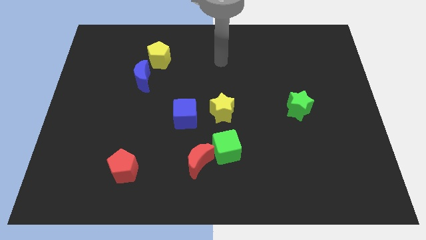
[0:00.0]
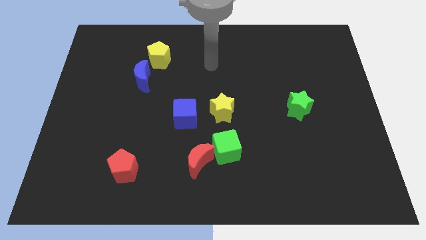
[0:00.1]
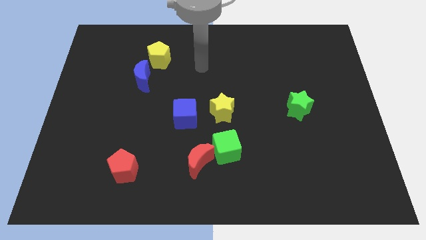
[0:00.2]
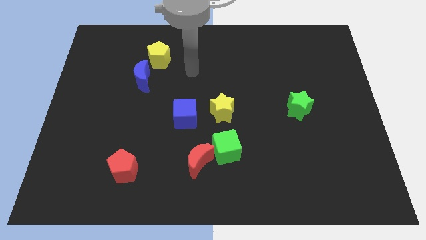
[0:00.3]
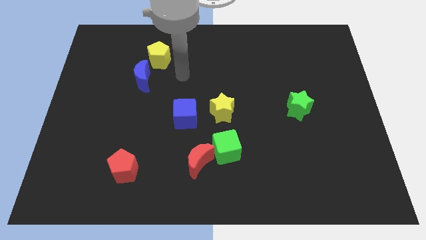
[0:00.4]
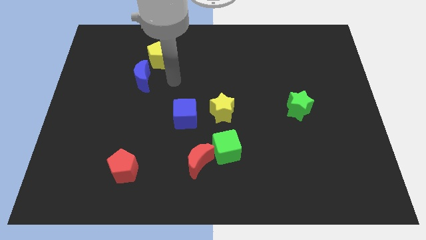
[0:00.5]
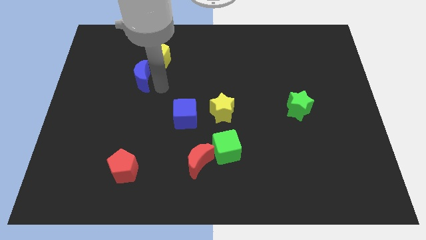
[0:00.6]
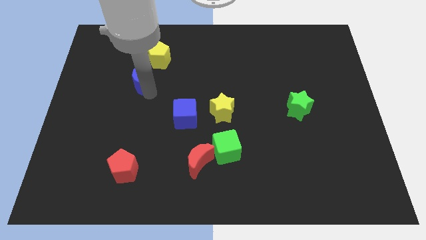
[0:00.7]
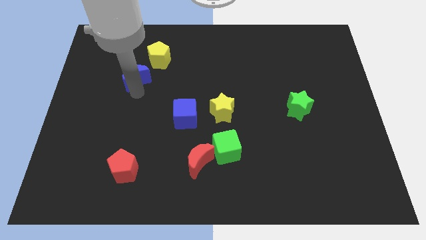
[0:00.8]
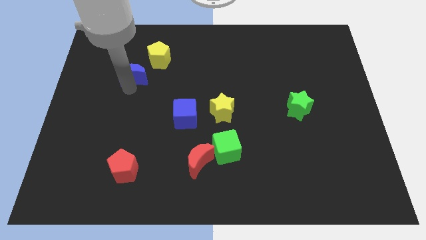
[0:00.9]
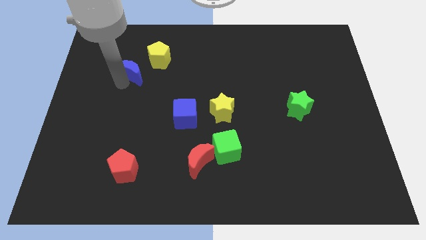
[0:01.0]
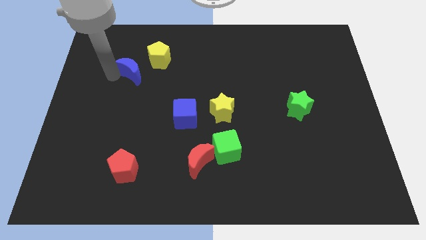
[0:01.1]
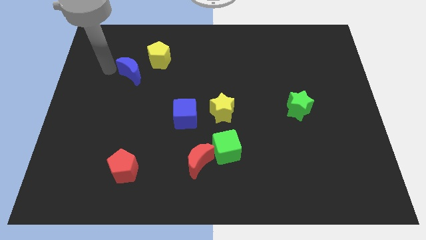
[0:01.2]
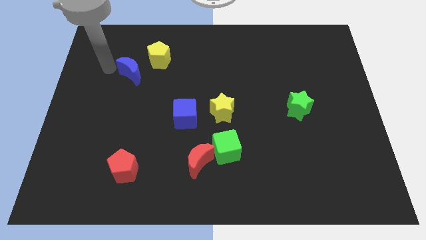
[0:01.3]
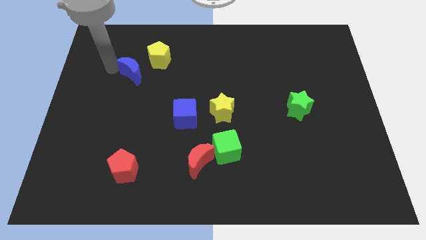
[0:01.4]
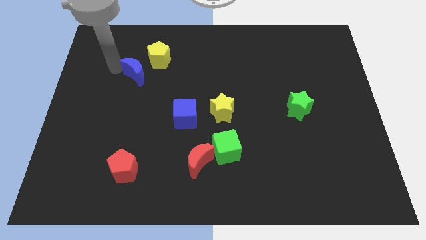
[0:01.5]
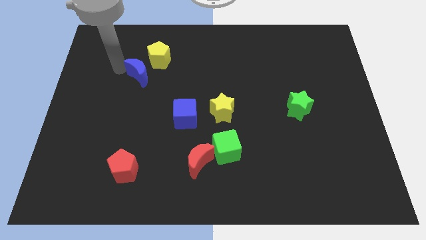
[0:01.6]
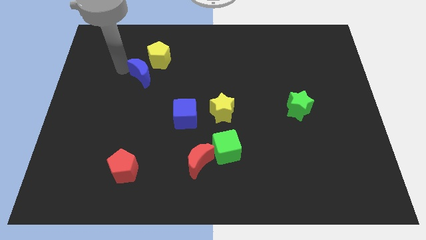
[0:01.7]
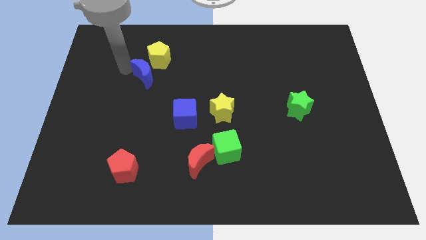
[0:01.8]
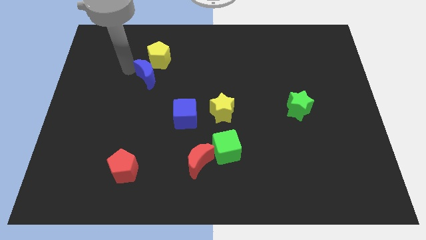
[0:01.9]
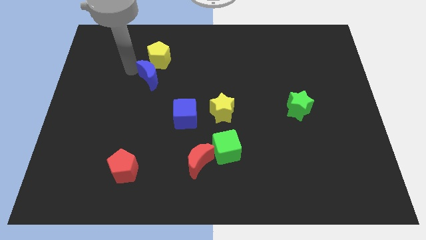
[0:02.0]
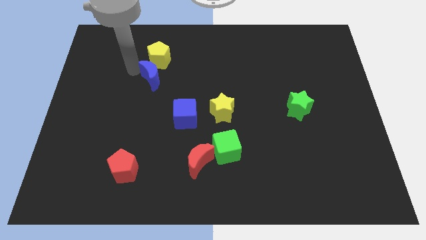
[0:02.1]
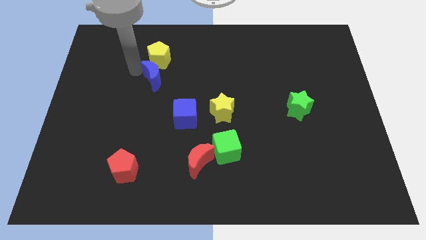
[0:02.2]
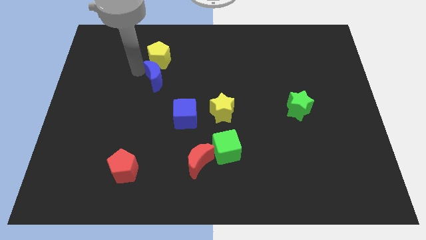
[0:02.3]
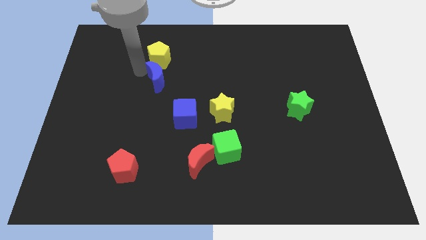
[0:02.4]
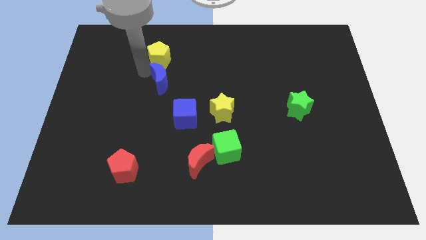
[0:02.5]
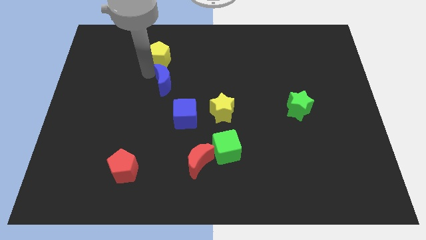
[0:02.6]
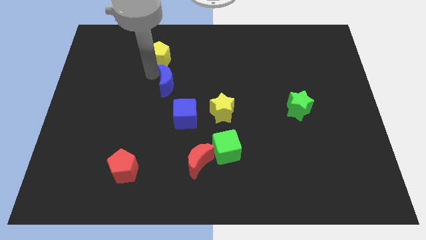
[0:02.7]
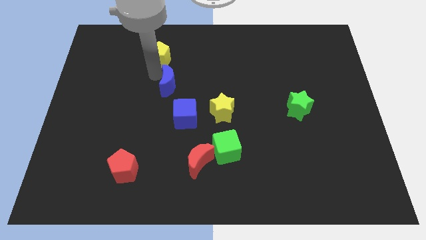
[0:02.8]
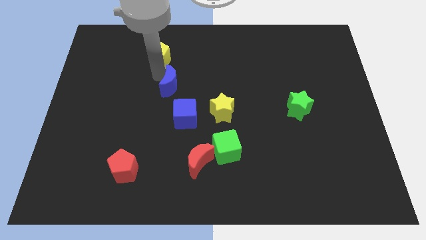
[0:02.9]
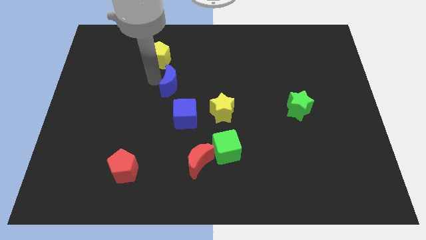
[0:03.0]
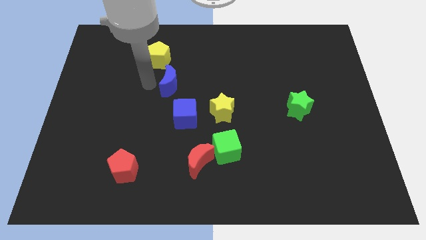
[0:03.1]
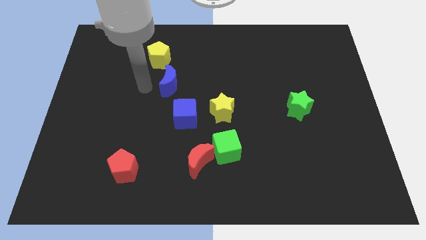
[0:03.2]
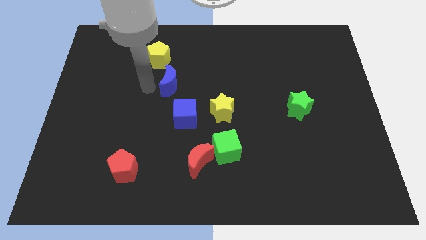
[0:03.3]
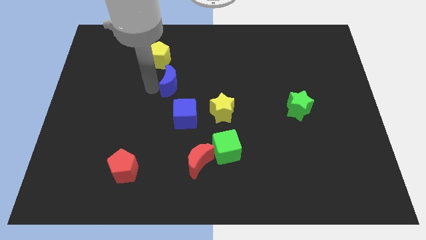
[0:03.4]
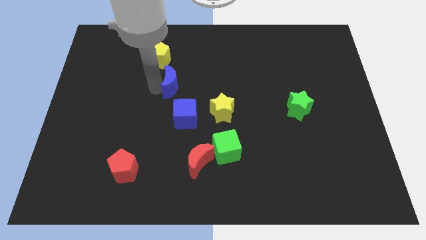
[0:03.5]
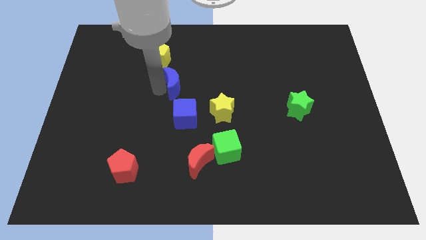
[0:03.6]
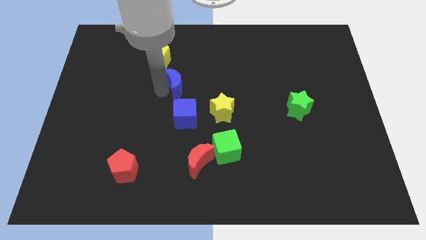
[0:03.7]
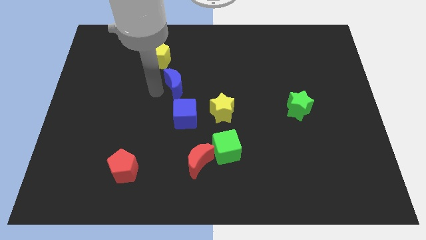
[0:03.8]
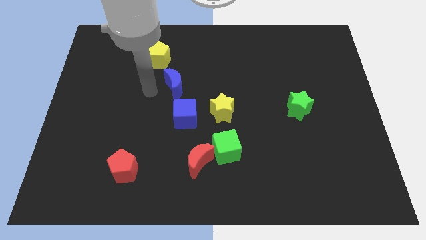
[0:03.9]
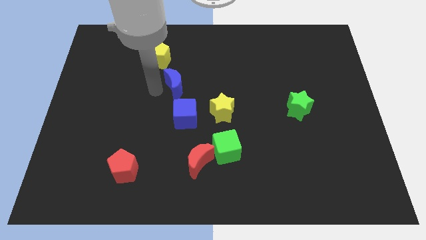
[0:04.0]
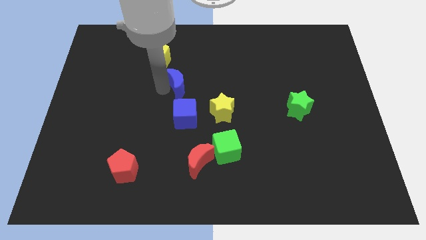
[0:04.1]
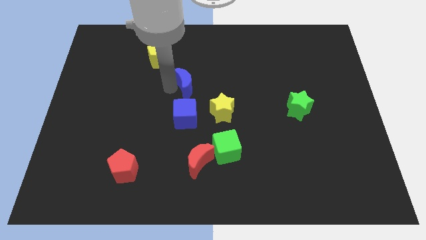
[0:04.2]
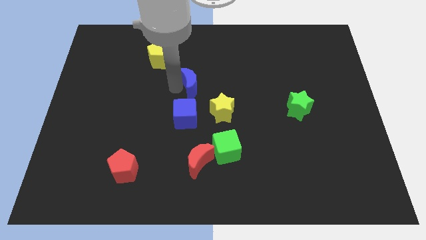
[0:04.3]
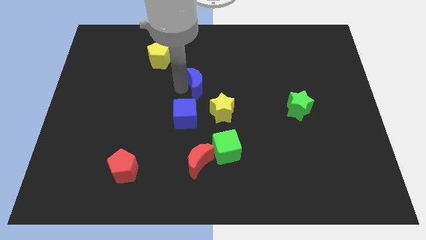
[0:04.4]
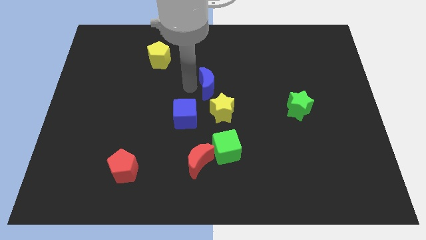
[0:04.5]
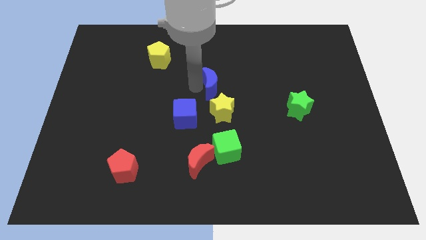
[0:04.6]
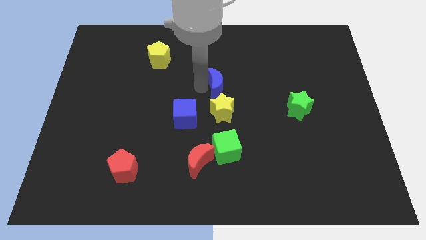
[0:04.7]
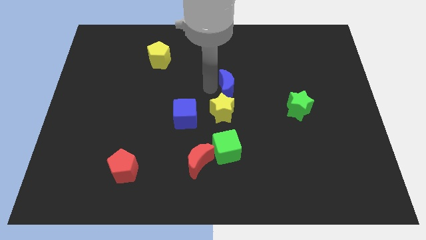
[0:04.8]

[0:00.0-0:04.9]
push the blue moon to the right

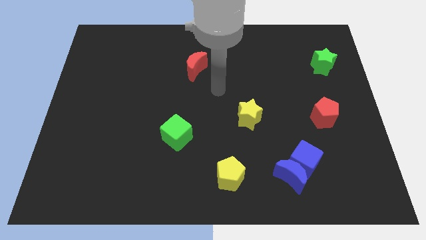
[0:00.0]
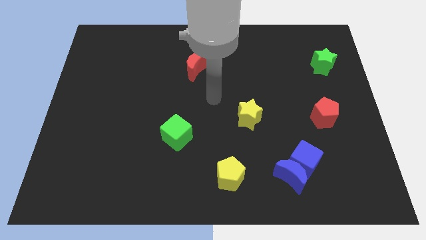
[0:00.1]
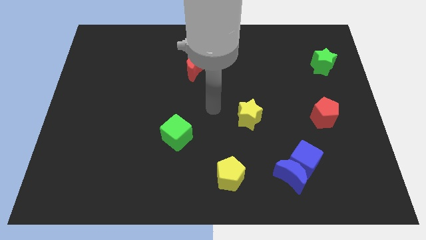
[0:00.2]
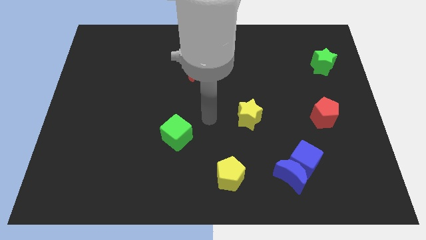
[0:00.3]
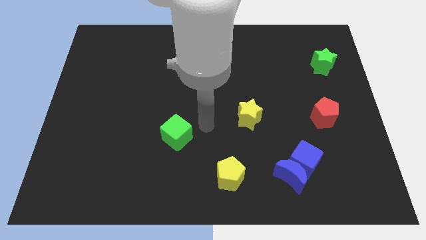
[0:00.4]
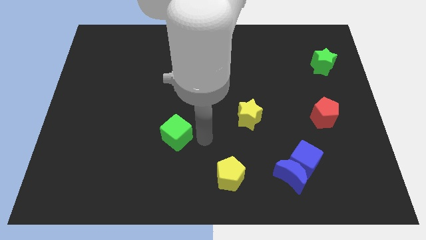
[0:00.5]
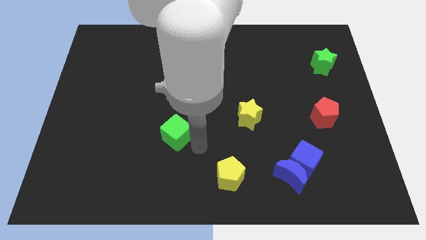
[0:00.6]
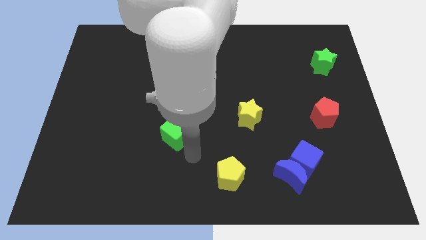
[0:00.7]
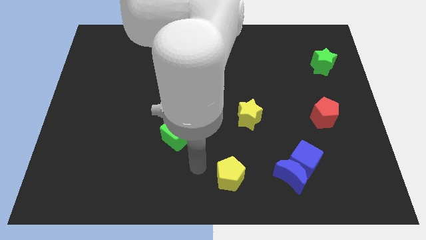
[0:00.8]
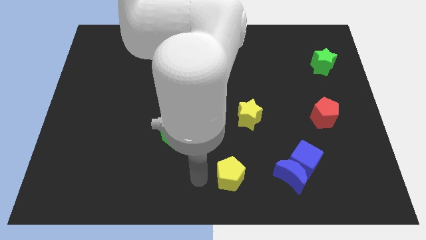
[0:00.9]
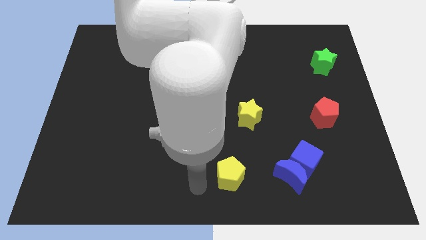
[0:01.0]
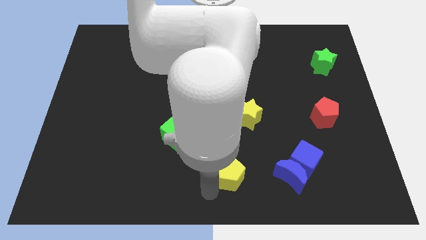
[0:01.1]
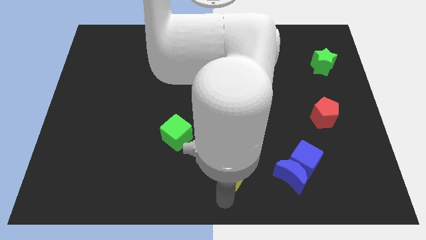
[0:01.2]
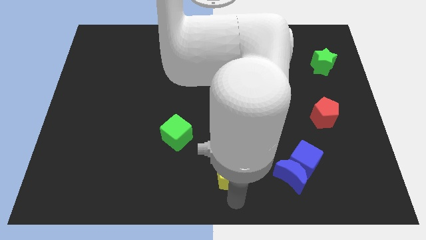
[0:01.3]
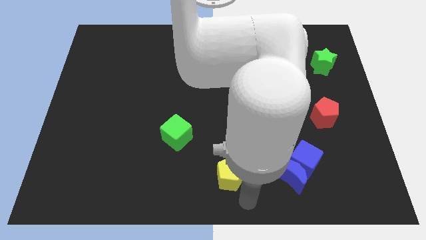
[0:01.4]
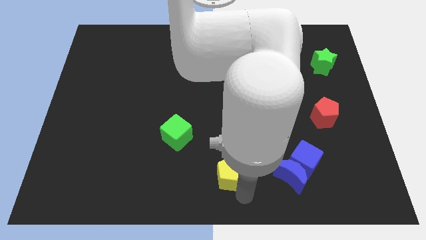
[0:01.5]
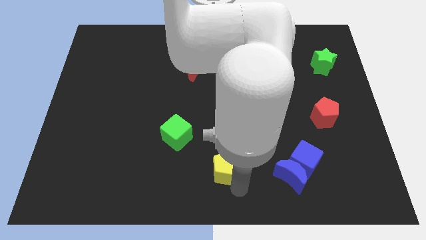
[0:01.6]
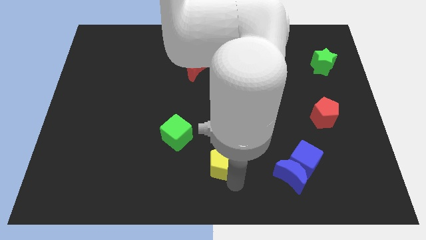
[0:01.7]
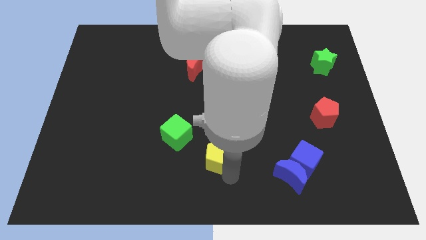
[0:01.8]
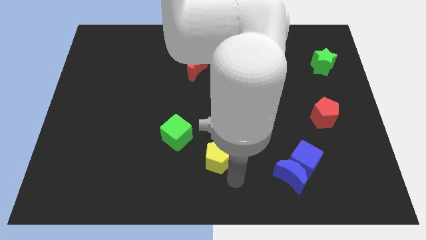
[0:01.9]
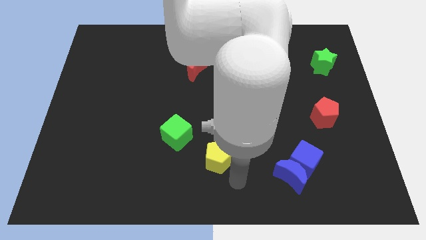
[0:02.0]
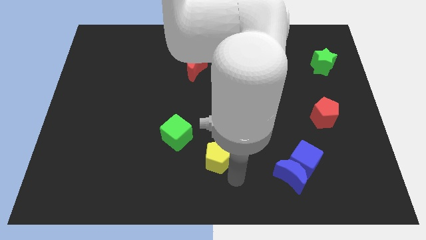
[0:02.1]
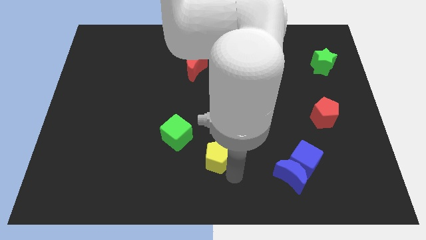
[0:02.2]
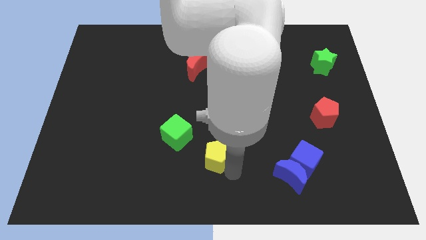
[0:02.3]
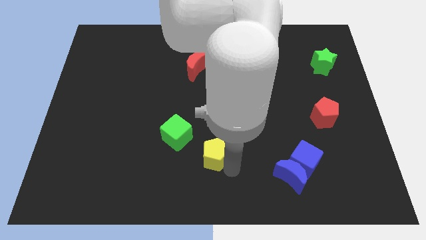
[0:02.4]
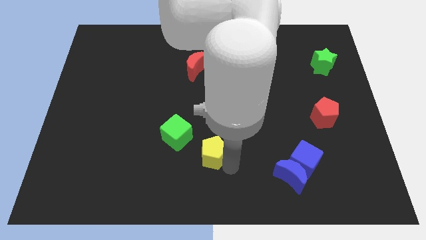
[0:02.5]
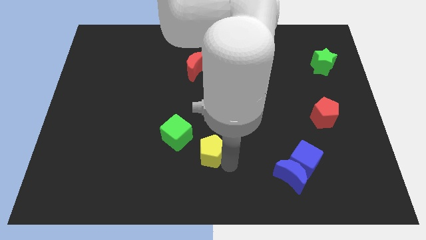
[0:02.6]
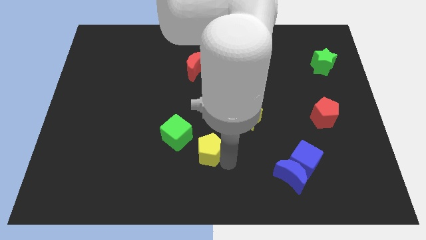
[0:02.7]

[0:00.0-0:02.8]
move the yellow pentagon a little bit upwards and to the left

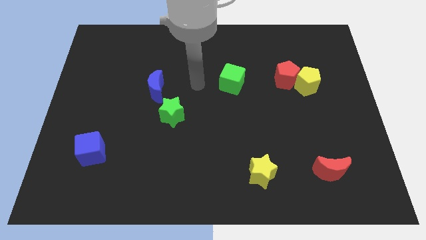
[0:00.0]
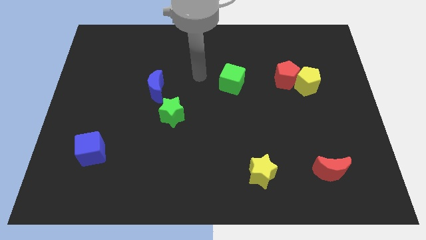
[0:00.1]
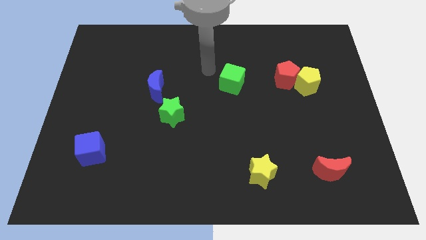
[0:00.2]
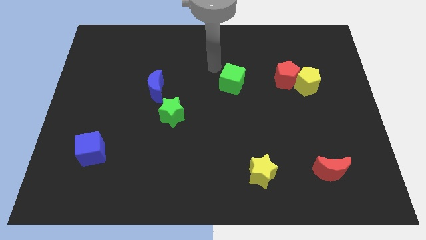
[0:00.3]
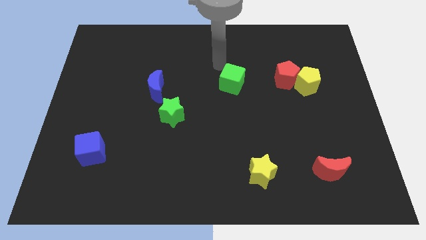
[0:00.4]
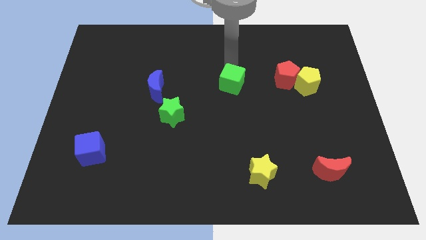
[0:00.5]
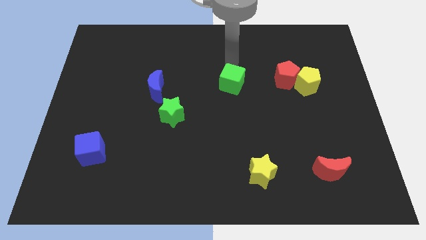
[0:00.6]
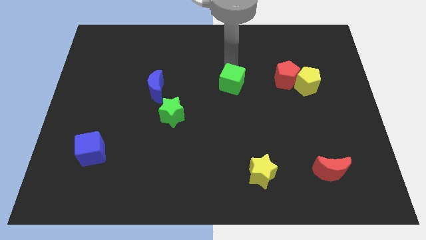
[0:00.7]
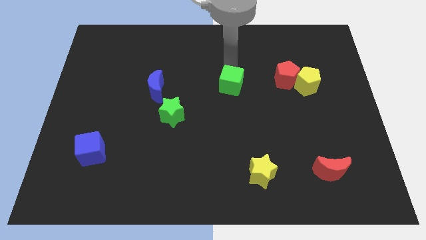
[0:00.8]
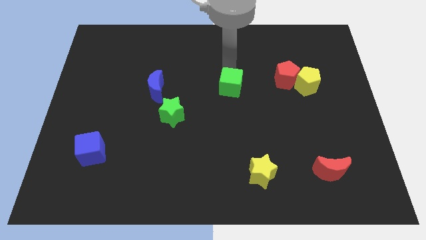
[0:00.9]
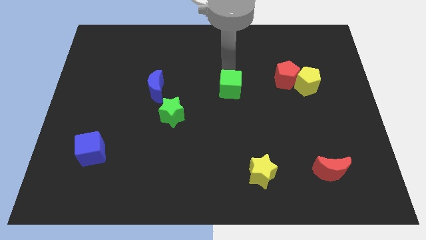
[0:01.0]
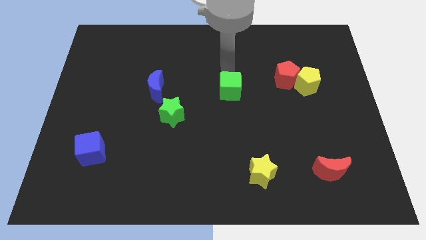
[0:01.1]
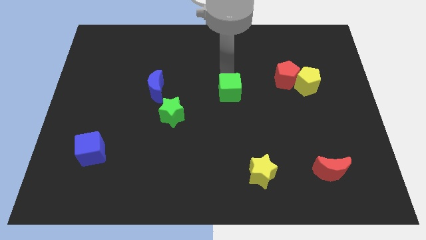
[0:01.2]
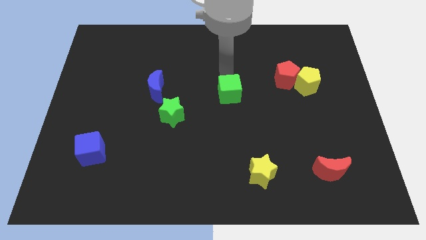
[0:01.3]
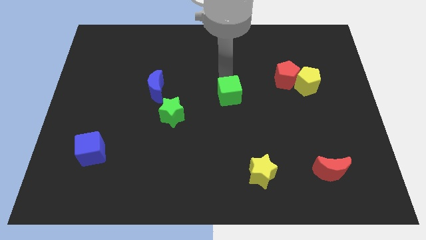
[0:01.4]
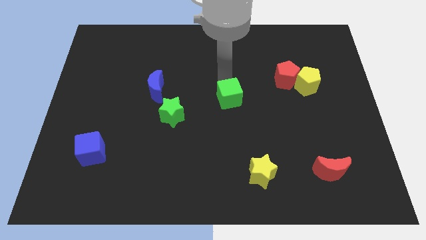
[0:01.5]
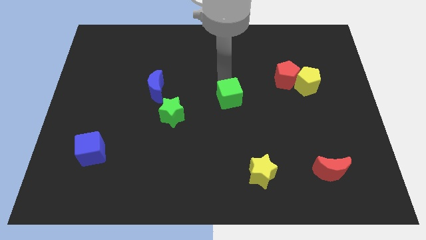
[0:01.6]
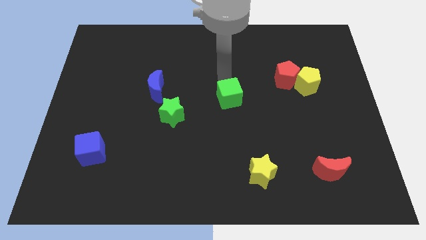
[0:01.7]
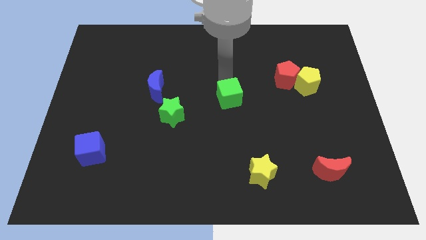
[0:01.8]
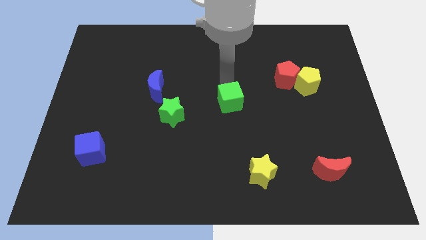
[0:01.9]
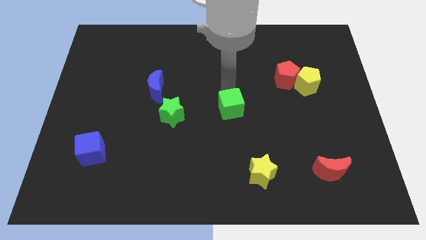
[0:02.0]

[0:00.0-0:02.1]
slightly push the green cube downwards
